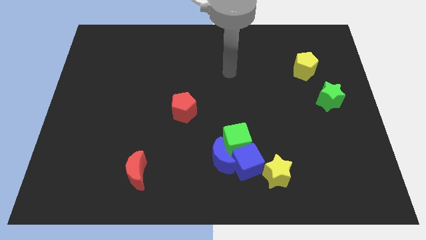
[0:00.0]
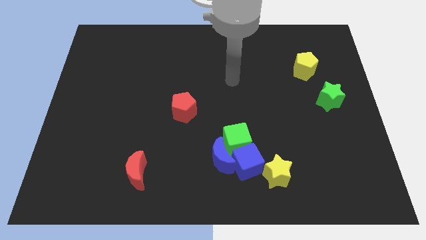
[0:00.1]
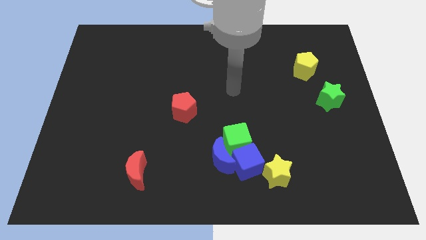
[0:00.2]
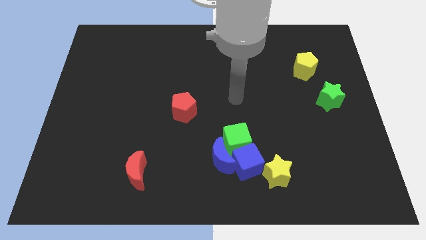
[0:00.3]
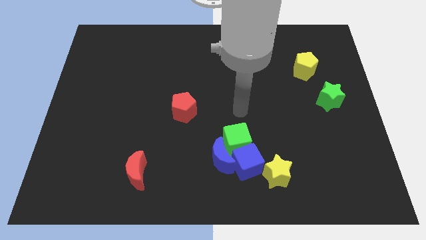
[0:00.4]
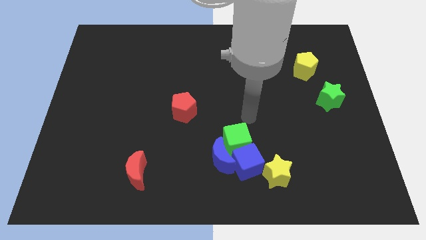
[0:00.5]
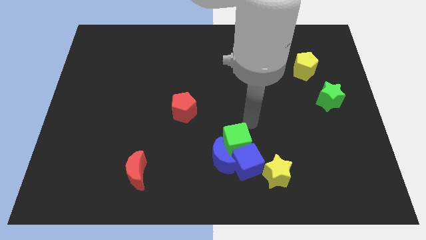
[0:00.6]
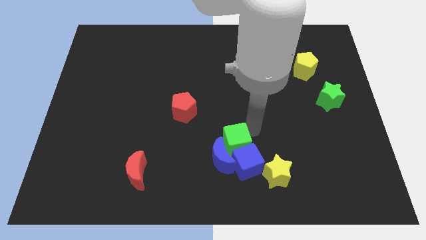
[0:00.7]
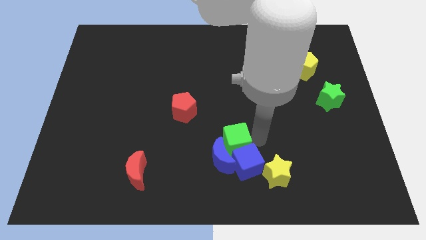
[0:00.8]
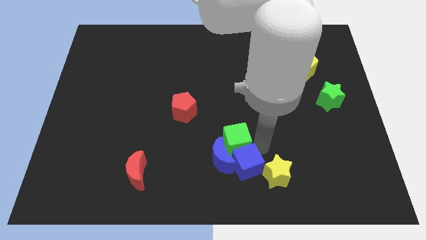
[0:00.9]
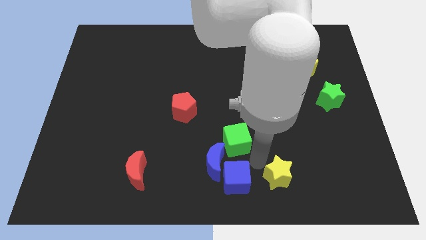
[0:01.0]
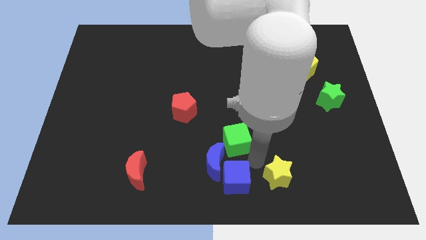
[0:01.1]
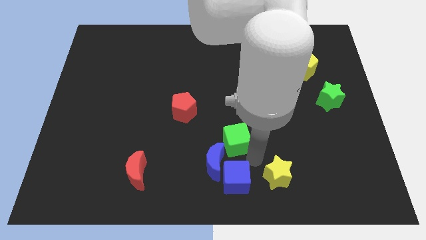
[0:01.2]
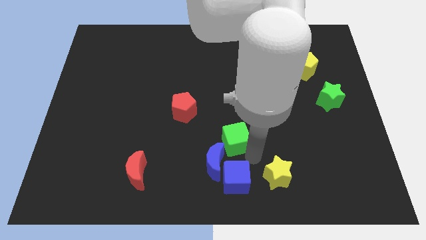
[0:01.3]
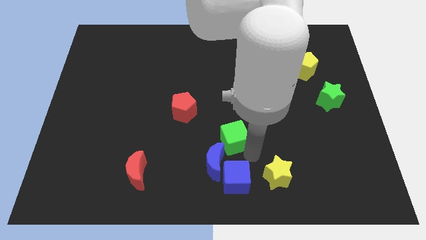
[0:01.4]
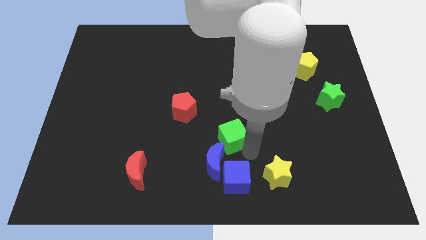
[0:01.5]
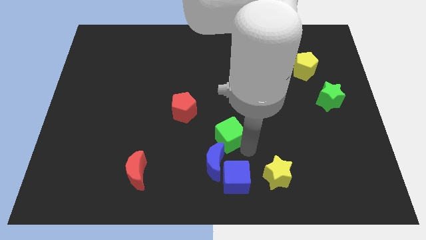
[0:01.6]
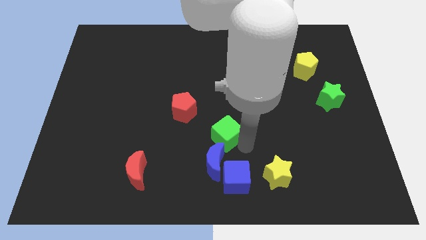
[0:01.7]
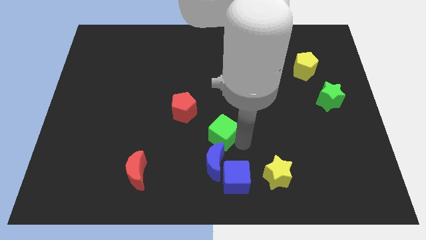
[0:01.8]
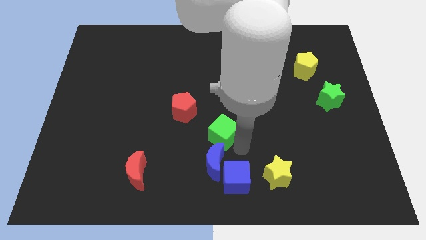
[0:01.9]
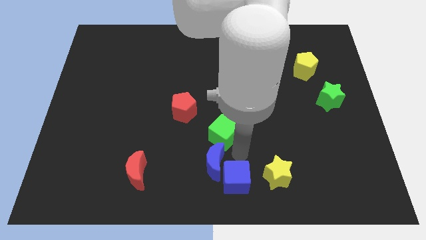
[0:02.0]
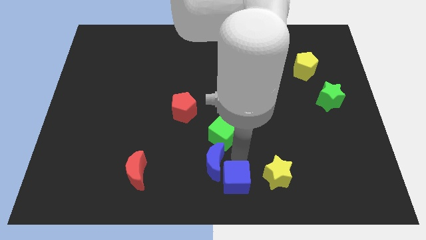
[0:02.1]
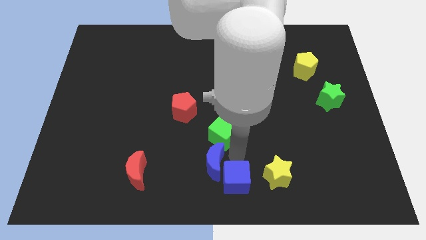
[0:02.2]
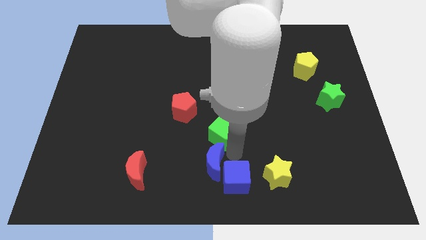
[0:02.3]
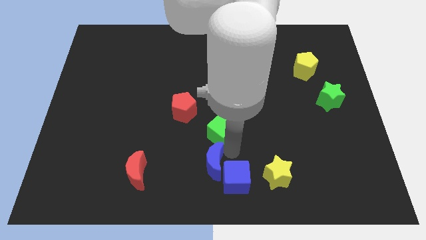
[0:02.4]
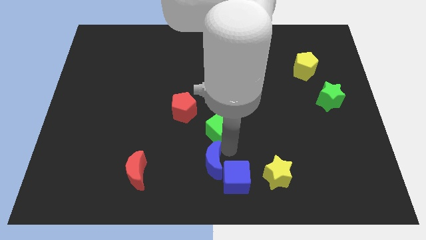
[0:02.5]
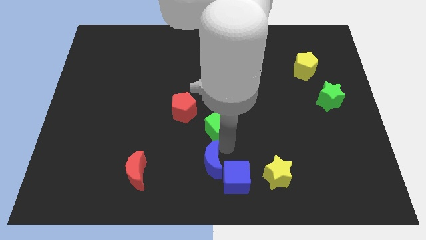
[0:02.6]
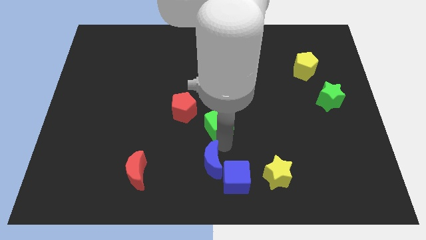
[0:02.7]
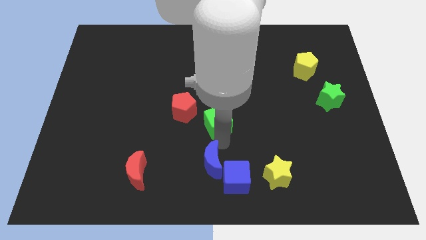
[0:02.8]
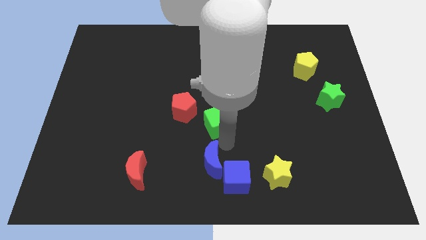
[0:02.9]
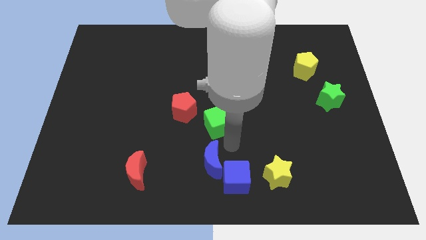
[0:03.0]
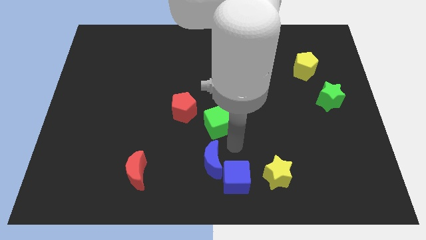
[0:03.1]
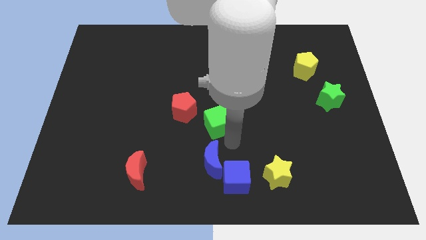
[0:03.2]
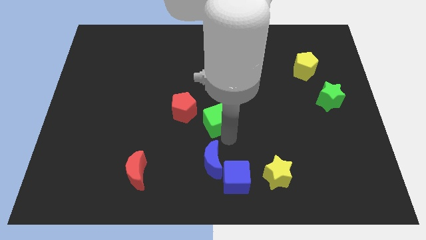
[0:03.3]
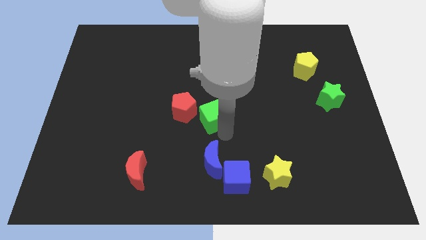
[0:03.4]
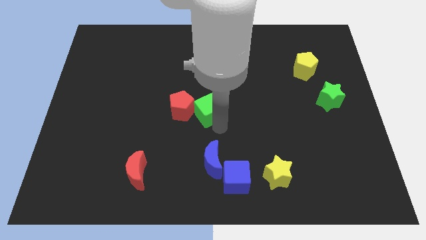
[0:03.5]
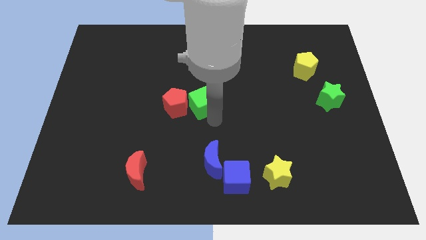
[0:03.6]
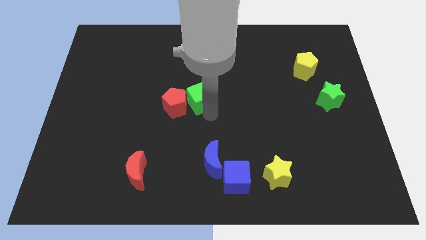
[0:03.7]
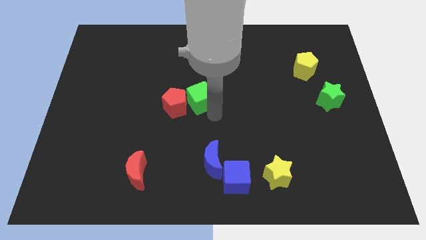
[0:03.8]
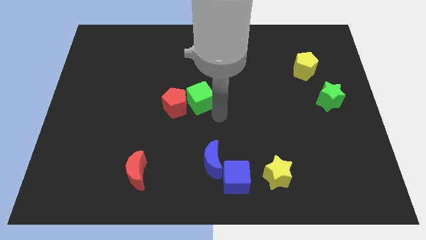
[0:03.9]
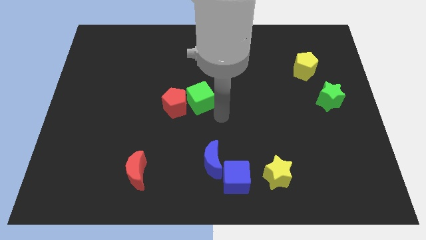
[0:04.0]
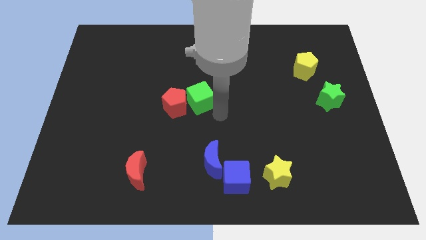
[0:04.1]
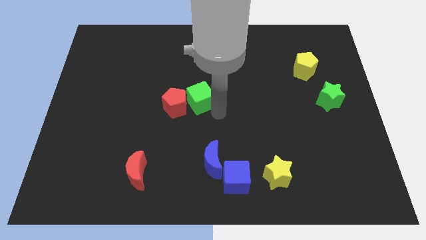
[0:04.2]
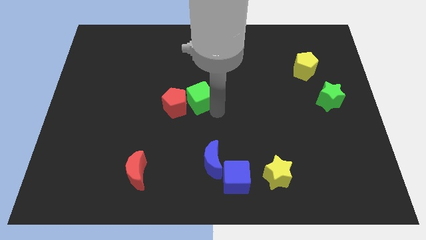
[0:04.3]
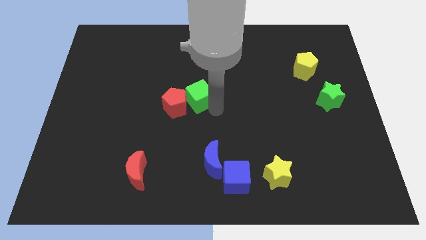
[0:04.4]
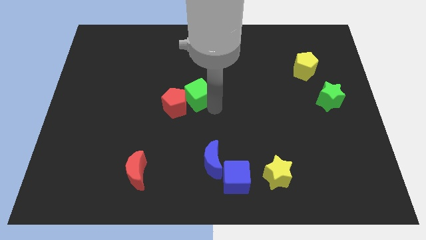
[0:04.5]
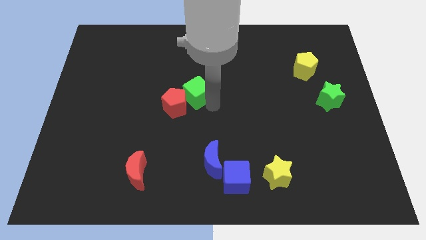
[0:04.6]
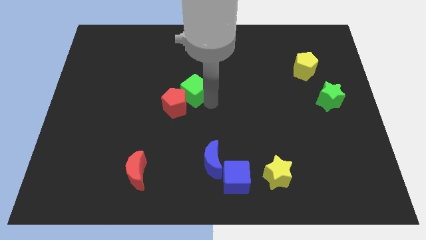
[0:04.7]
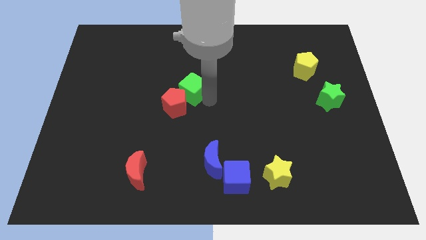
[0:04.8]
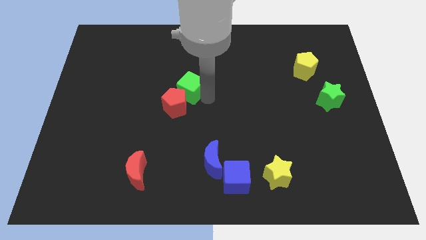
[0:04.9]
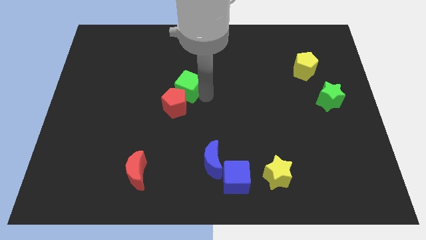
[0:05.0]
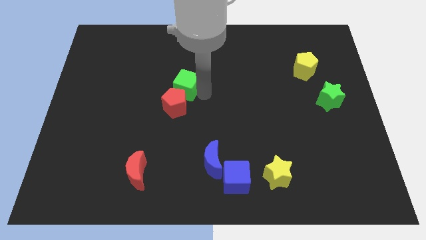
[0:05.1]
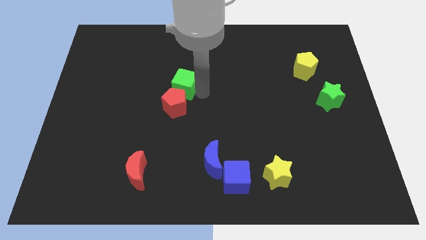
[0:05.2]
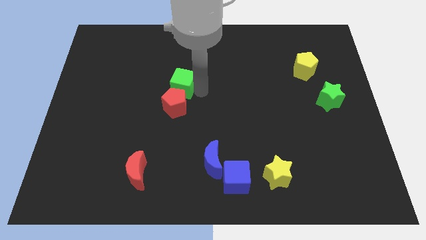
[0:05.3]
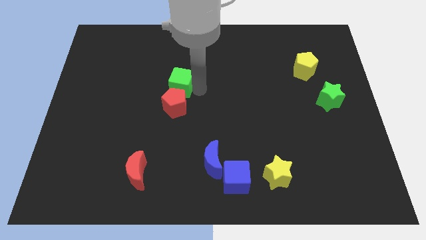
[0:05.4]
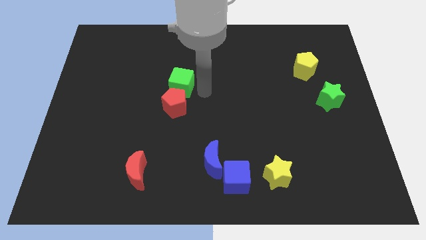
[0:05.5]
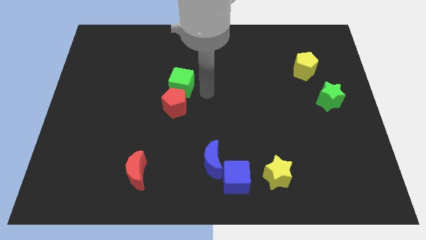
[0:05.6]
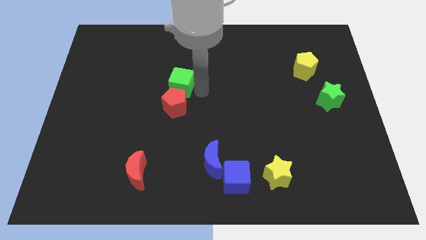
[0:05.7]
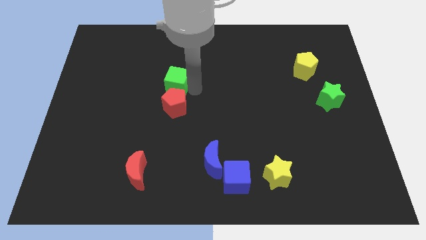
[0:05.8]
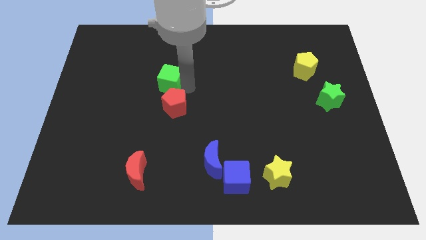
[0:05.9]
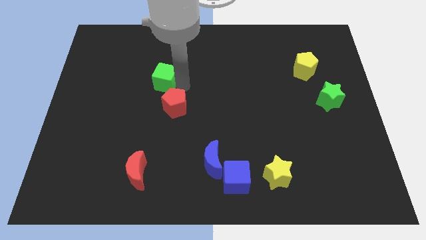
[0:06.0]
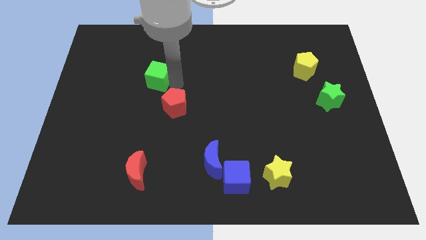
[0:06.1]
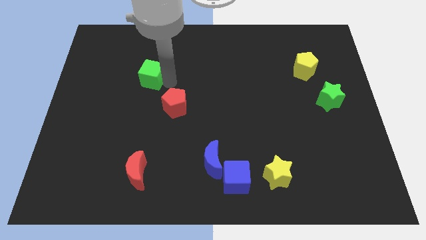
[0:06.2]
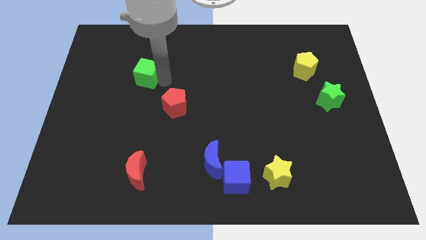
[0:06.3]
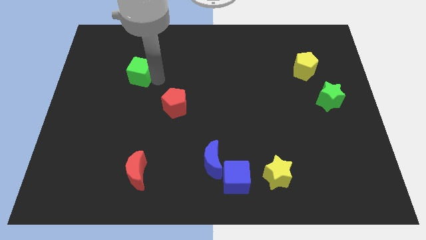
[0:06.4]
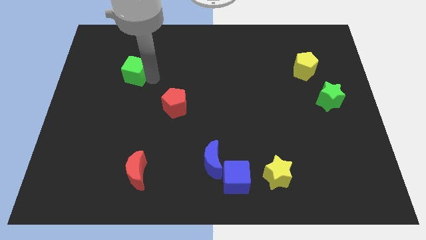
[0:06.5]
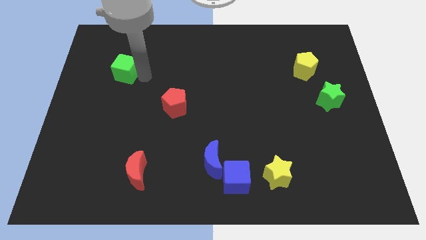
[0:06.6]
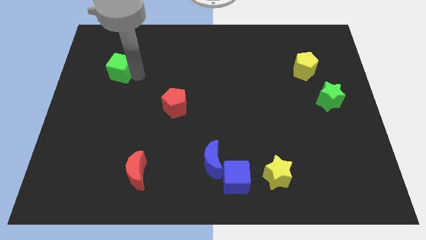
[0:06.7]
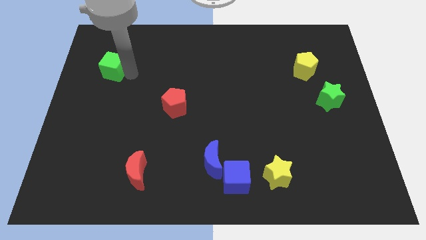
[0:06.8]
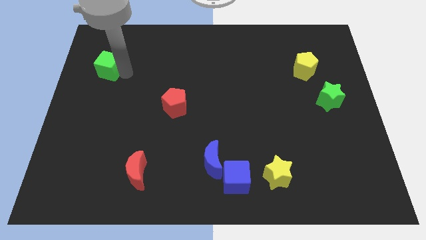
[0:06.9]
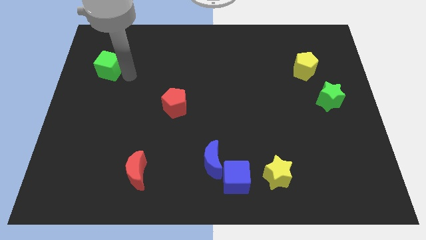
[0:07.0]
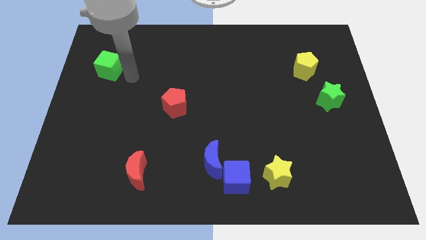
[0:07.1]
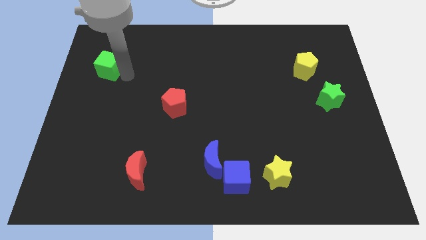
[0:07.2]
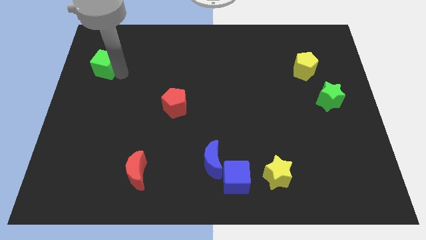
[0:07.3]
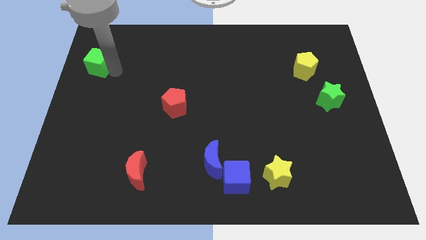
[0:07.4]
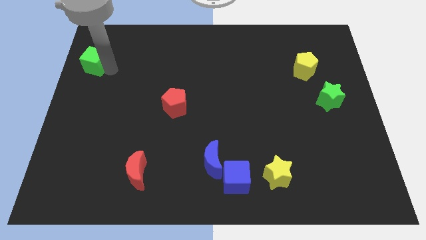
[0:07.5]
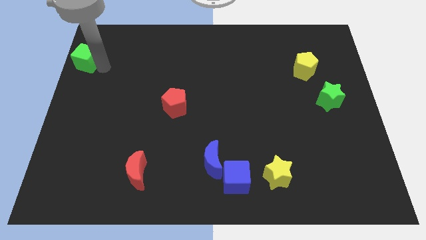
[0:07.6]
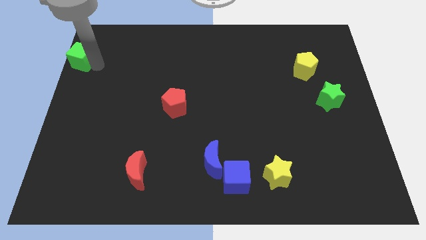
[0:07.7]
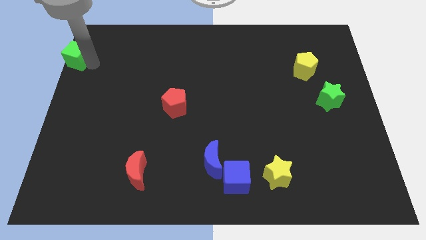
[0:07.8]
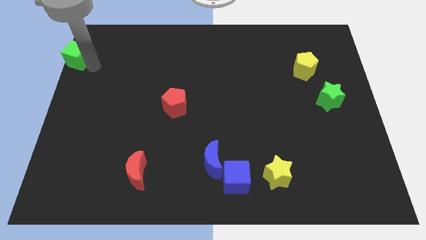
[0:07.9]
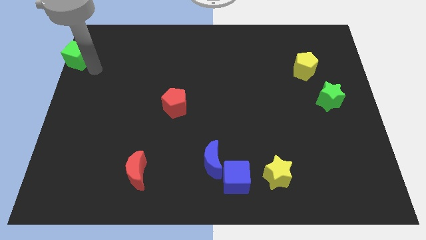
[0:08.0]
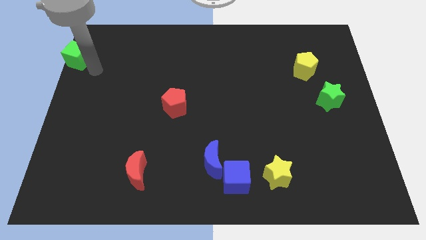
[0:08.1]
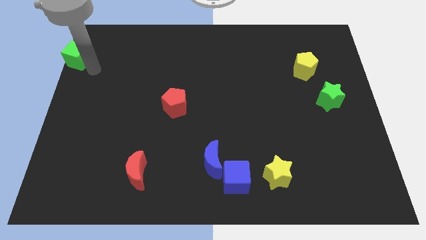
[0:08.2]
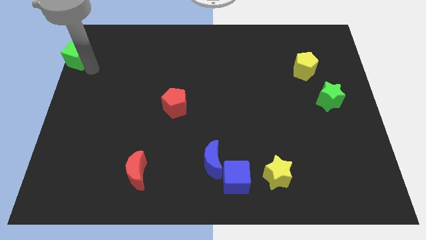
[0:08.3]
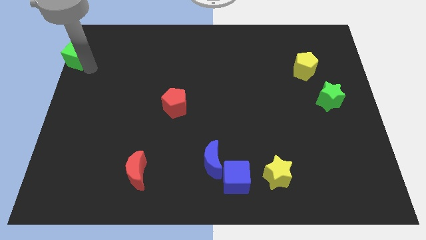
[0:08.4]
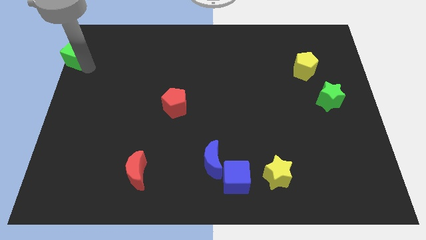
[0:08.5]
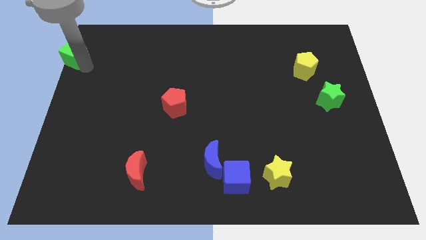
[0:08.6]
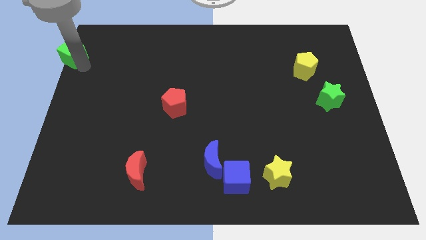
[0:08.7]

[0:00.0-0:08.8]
push the green cube to the upper left corner
